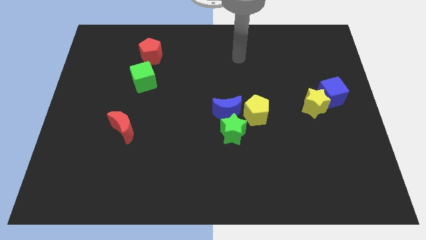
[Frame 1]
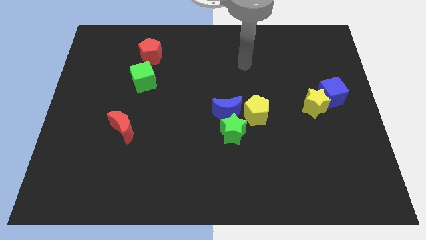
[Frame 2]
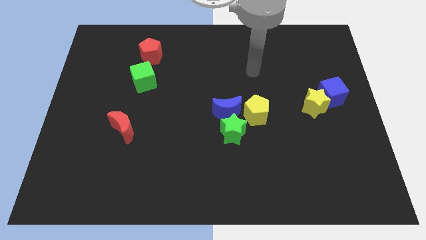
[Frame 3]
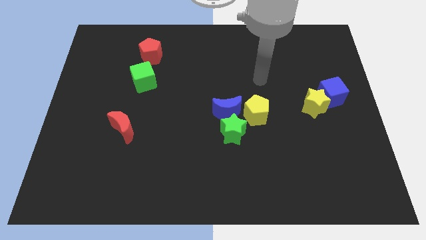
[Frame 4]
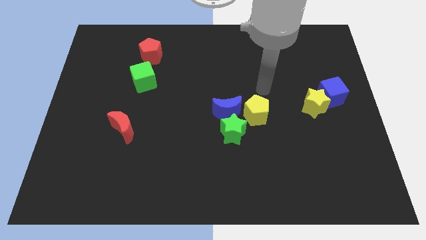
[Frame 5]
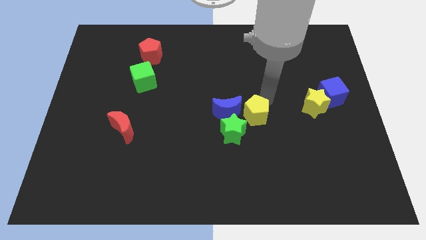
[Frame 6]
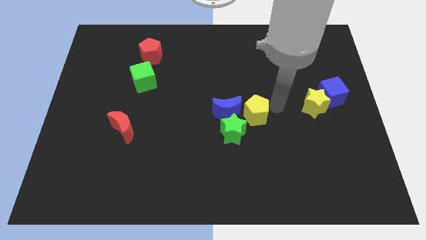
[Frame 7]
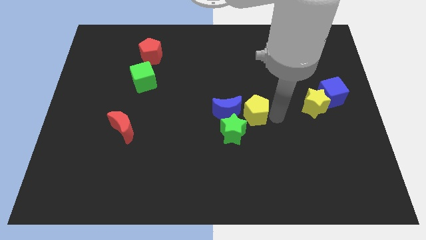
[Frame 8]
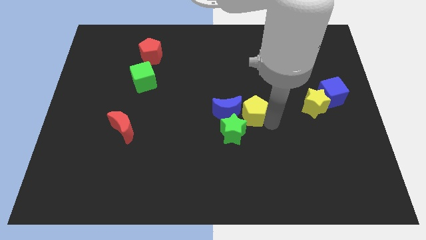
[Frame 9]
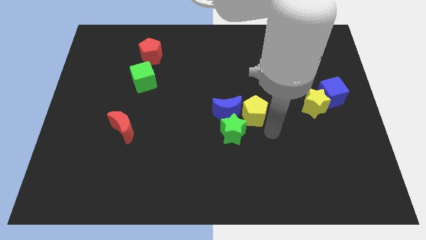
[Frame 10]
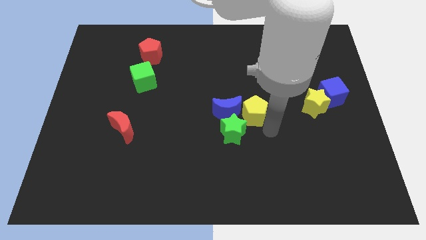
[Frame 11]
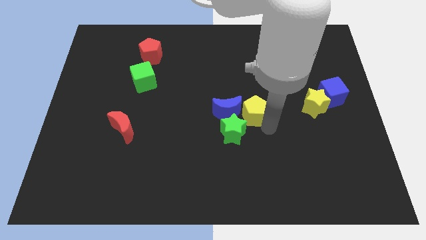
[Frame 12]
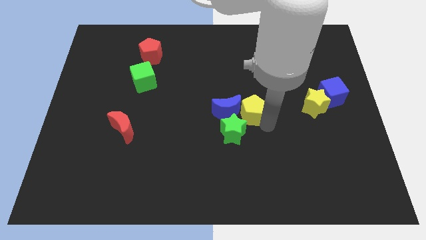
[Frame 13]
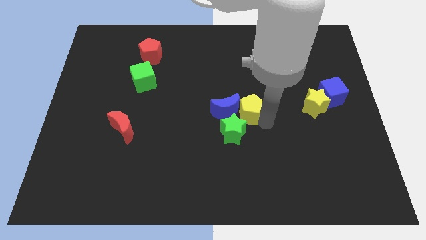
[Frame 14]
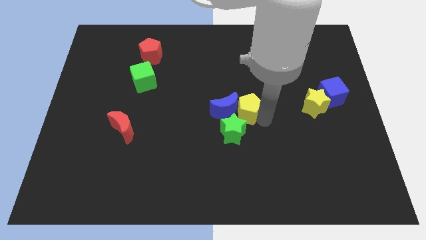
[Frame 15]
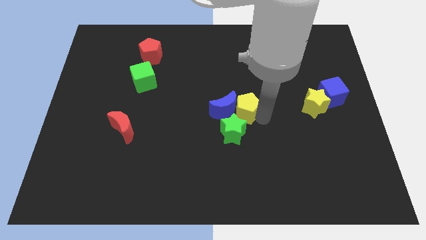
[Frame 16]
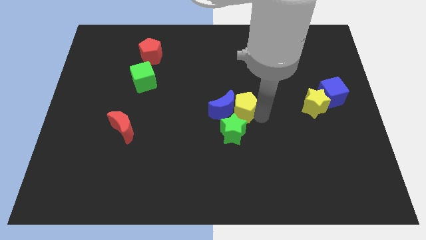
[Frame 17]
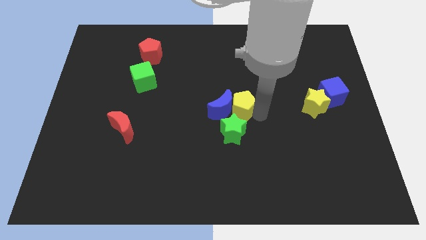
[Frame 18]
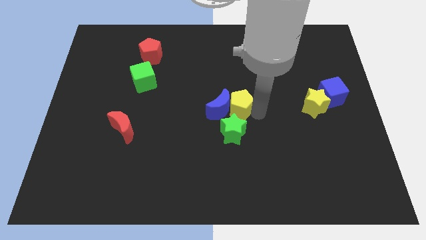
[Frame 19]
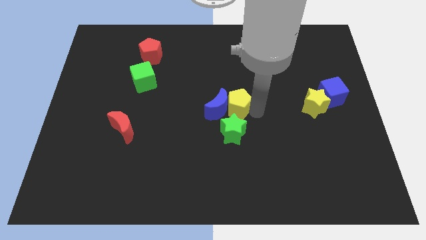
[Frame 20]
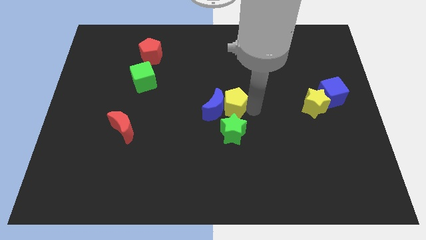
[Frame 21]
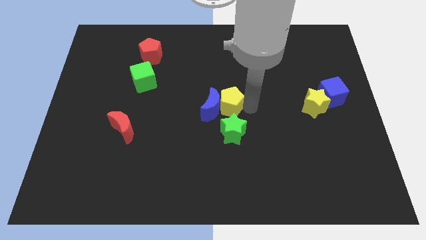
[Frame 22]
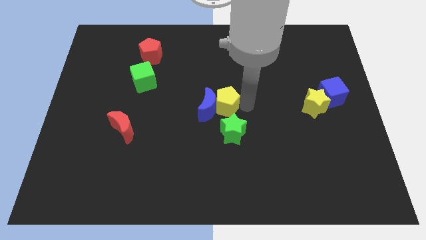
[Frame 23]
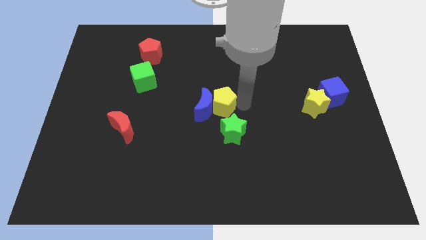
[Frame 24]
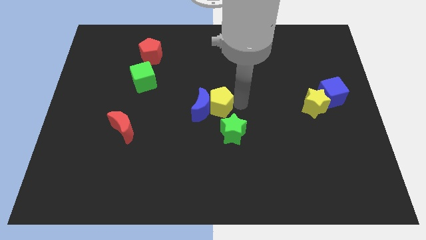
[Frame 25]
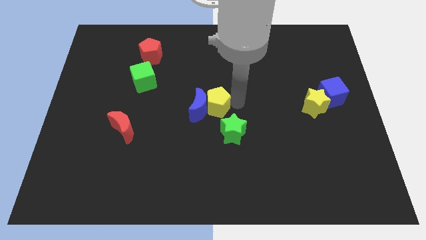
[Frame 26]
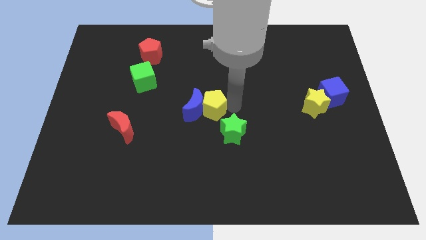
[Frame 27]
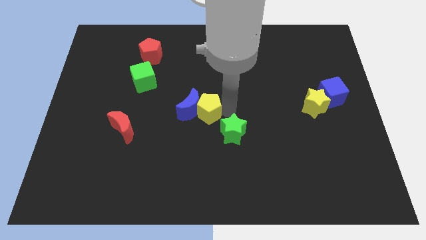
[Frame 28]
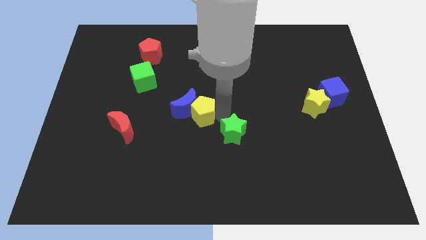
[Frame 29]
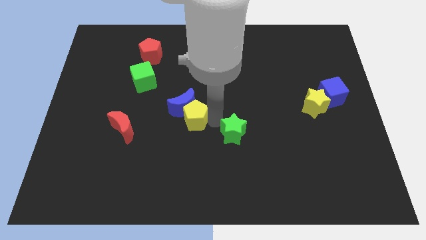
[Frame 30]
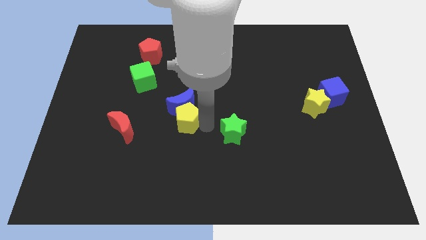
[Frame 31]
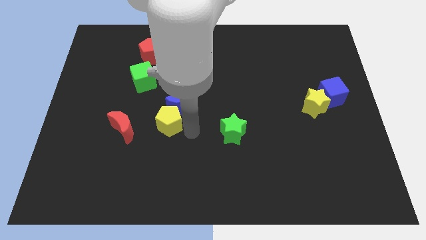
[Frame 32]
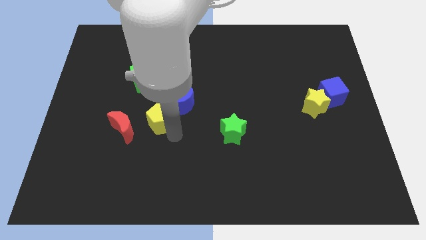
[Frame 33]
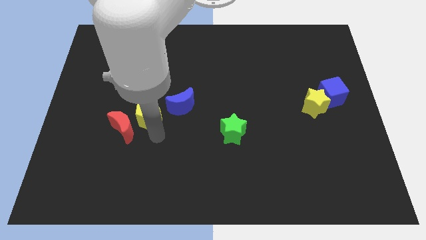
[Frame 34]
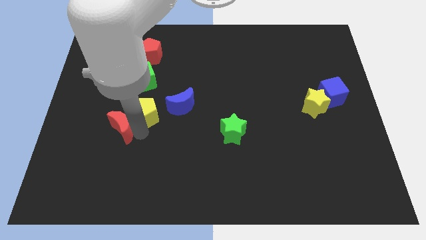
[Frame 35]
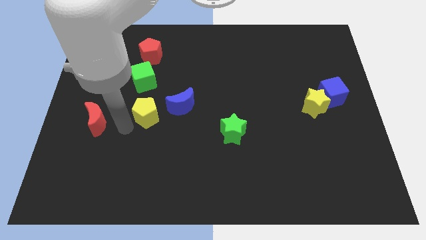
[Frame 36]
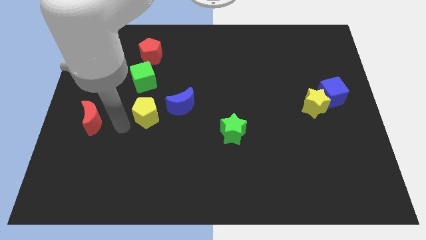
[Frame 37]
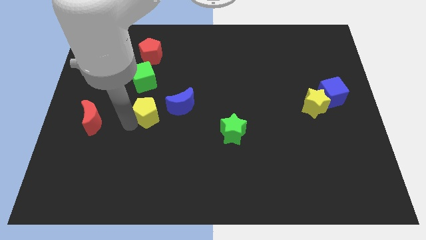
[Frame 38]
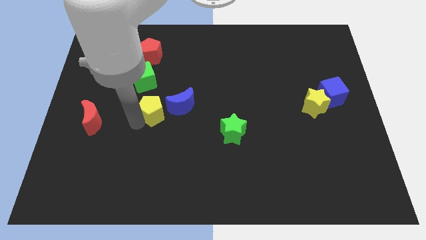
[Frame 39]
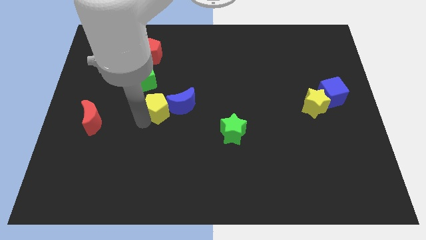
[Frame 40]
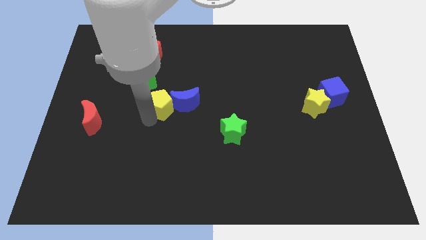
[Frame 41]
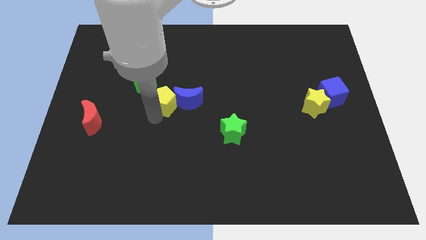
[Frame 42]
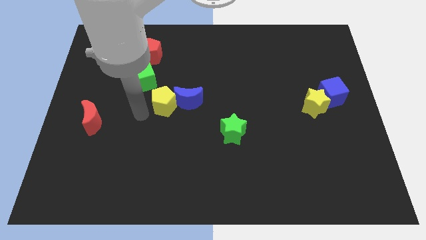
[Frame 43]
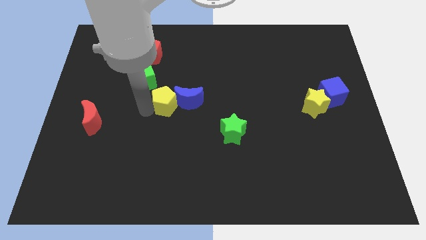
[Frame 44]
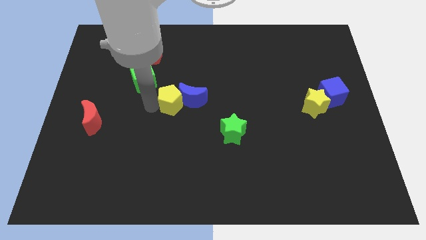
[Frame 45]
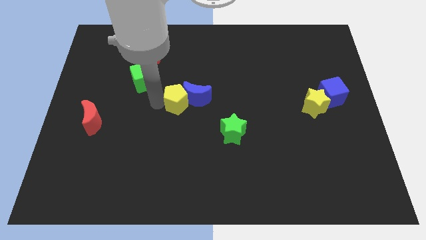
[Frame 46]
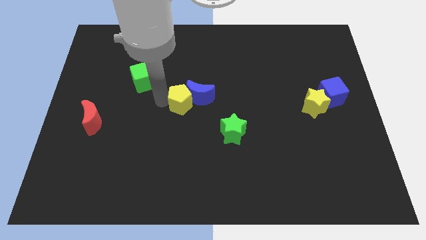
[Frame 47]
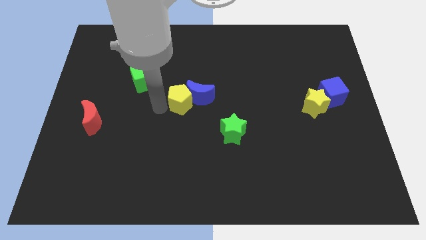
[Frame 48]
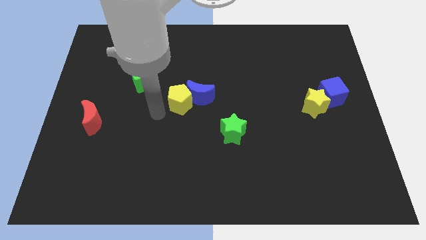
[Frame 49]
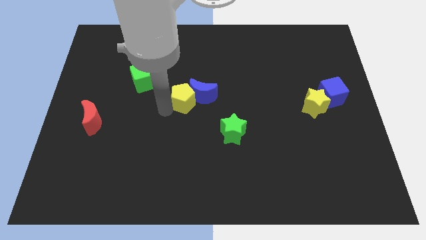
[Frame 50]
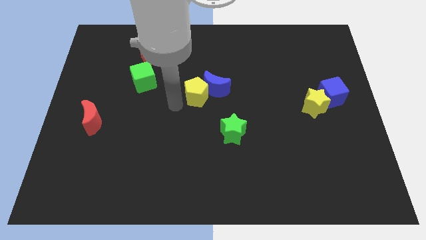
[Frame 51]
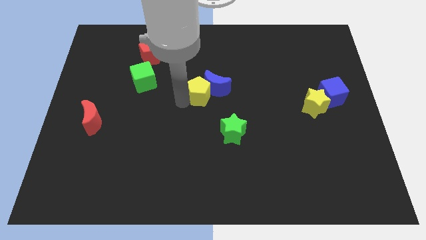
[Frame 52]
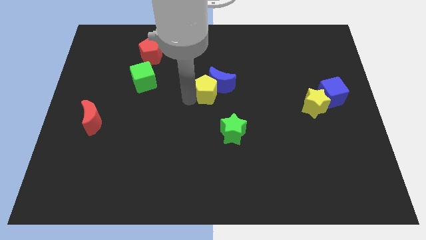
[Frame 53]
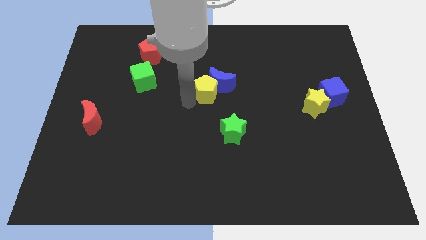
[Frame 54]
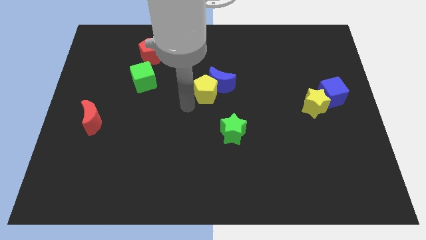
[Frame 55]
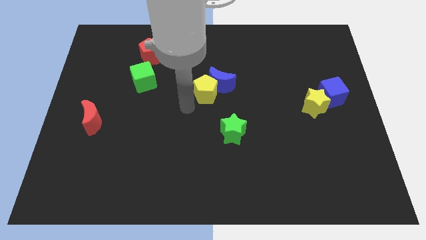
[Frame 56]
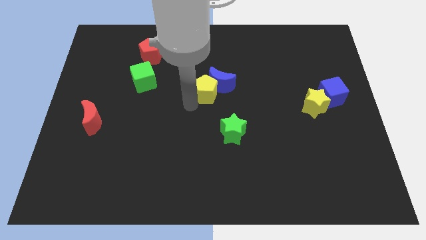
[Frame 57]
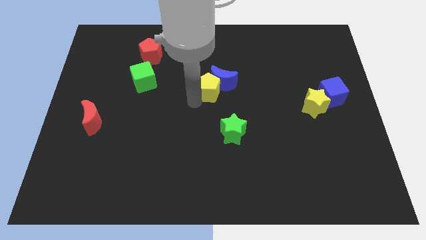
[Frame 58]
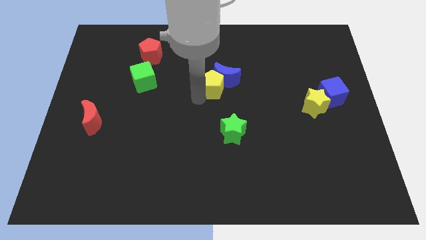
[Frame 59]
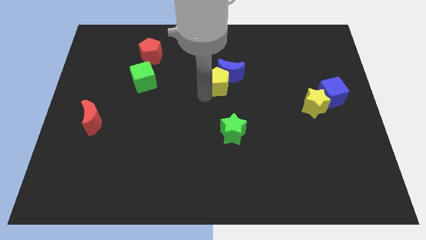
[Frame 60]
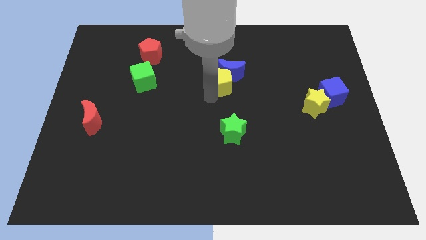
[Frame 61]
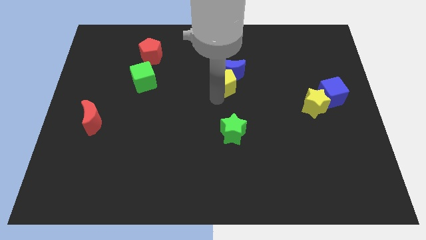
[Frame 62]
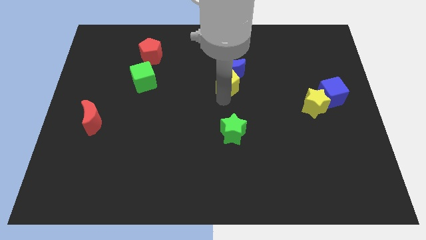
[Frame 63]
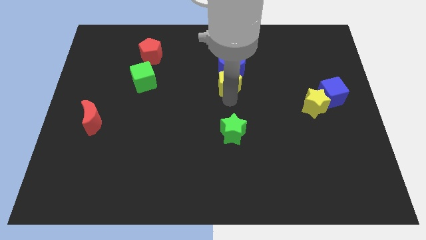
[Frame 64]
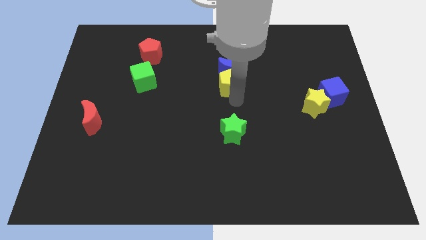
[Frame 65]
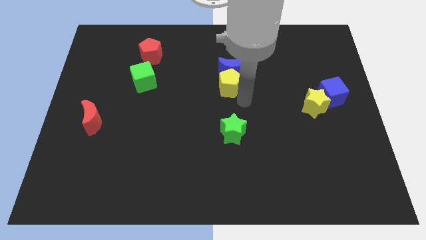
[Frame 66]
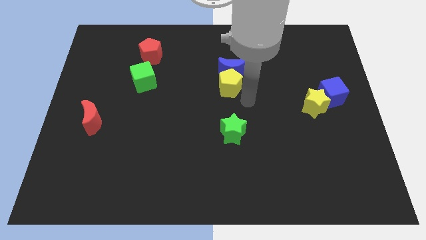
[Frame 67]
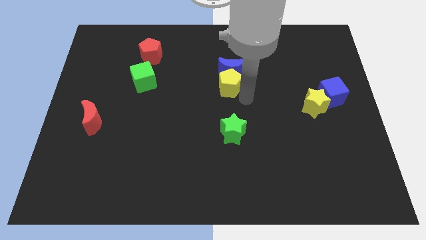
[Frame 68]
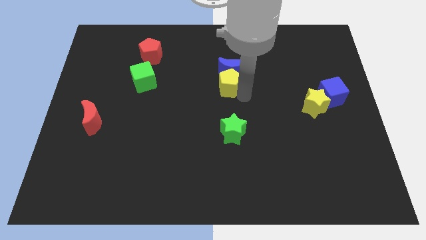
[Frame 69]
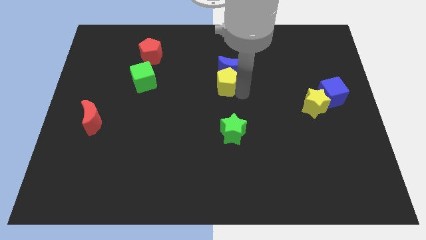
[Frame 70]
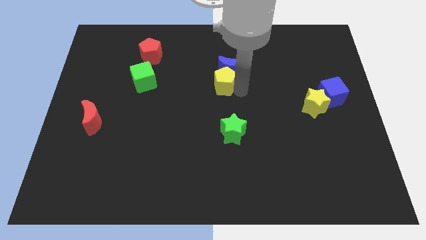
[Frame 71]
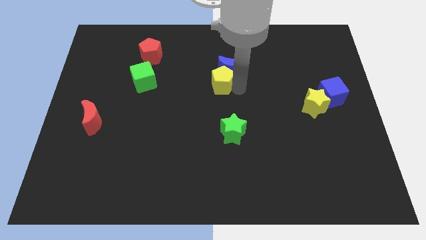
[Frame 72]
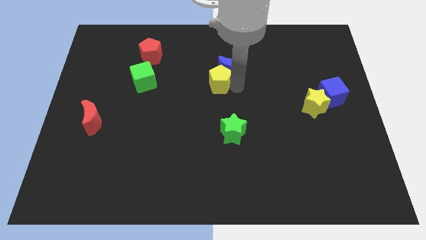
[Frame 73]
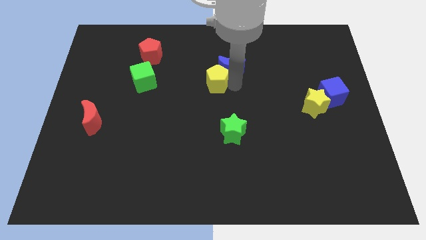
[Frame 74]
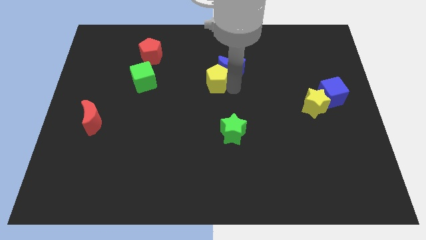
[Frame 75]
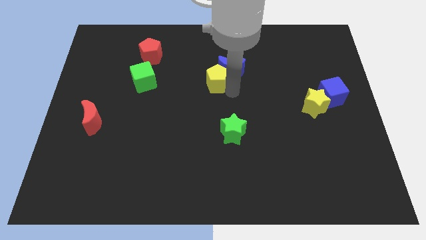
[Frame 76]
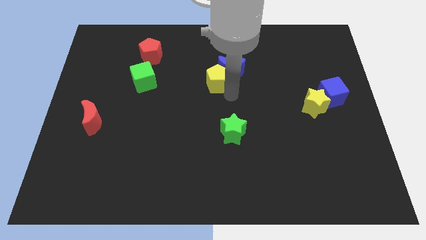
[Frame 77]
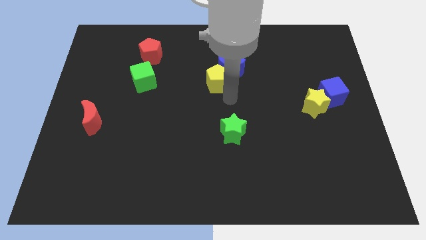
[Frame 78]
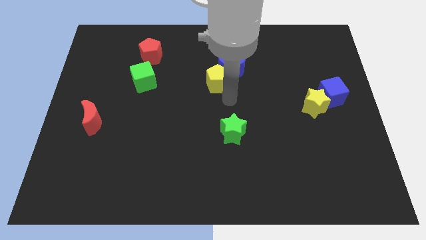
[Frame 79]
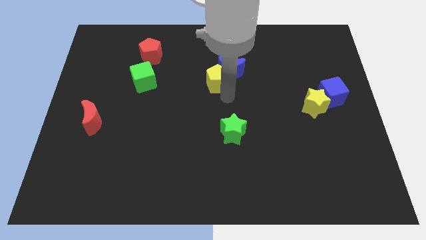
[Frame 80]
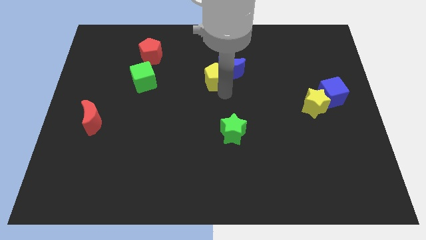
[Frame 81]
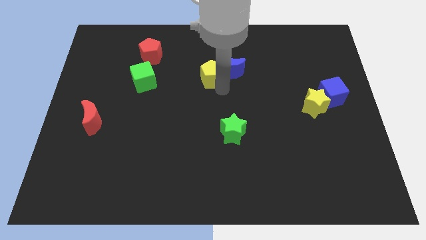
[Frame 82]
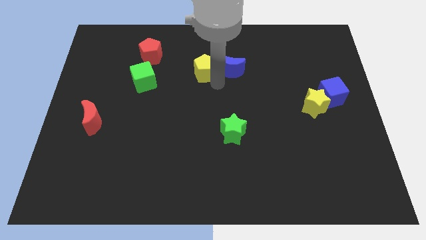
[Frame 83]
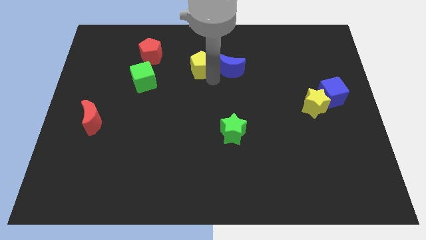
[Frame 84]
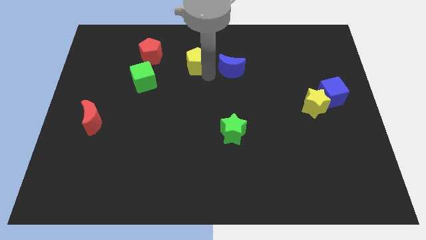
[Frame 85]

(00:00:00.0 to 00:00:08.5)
slide the yellow pentagon just right of the red pentagon
